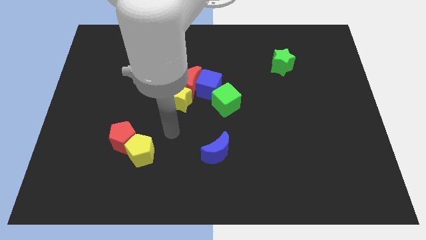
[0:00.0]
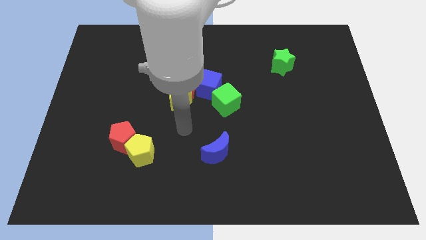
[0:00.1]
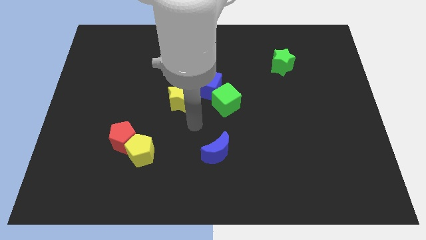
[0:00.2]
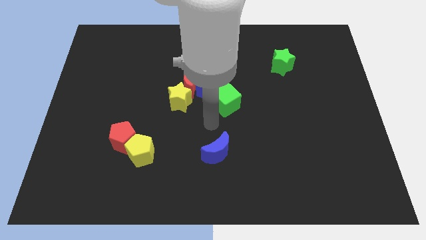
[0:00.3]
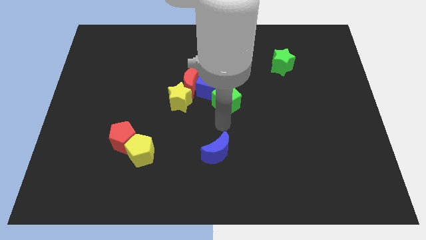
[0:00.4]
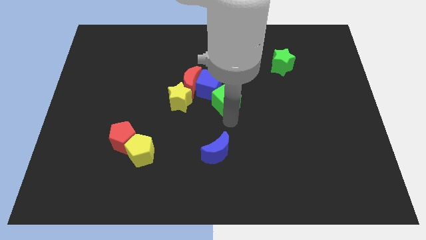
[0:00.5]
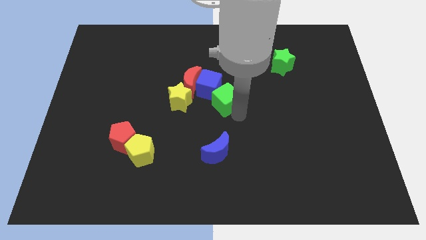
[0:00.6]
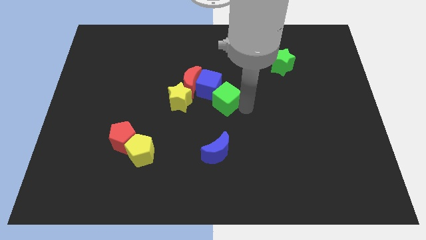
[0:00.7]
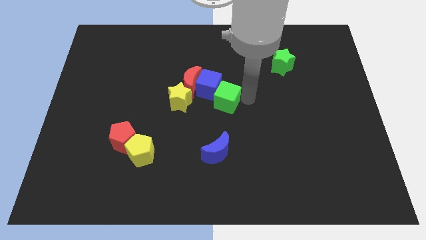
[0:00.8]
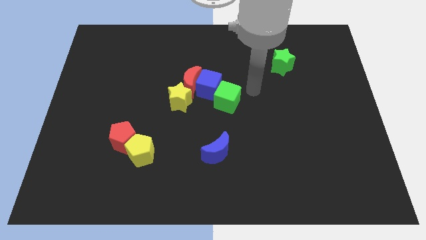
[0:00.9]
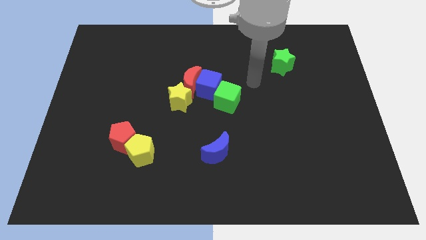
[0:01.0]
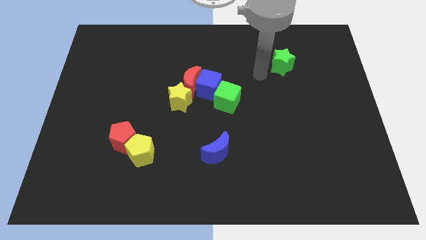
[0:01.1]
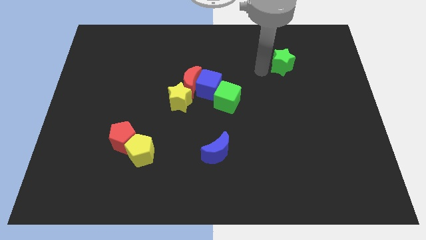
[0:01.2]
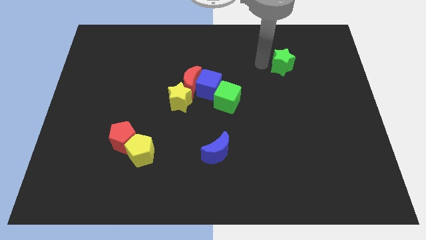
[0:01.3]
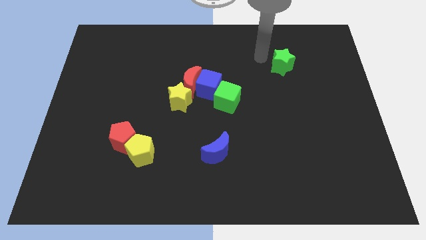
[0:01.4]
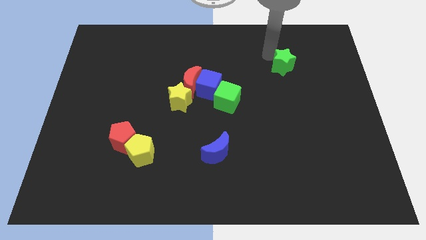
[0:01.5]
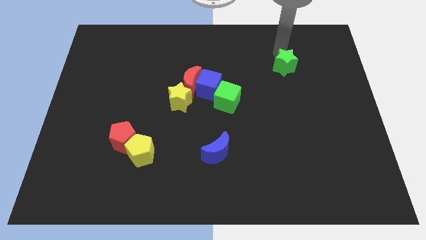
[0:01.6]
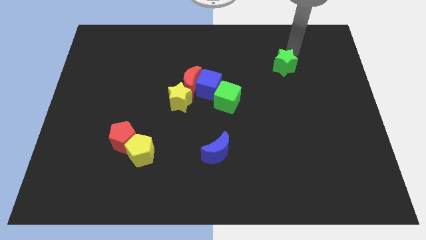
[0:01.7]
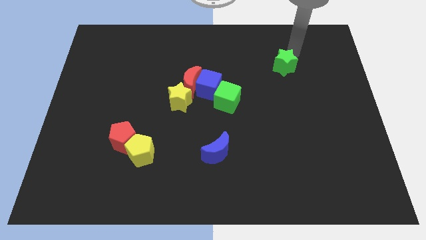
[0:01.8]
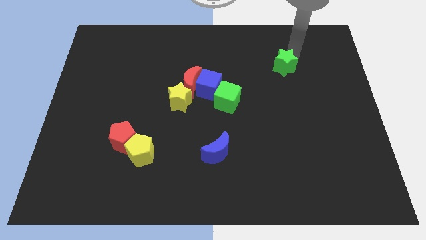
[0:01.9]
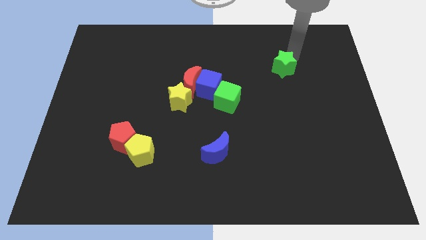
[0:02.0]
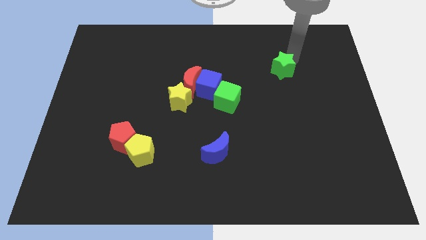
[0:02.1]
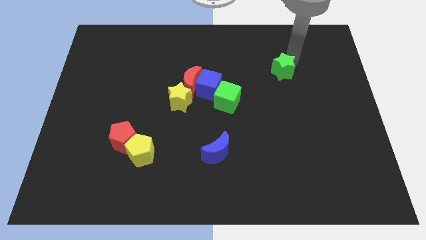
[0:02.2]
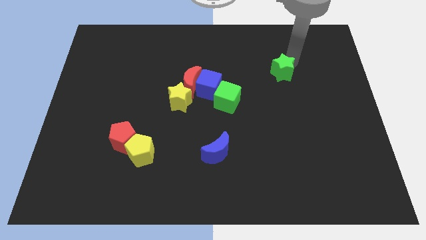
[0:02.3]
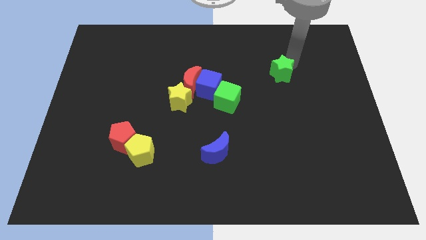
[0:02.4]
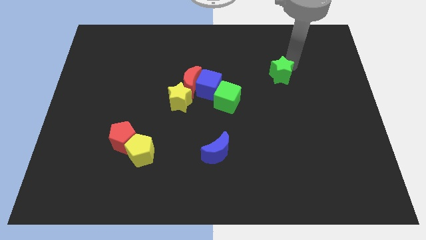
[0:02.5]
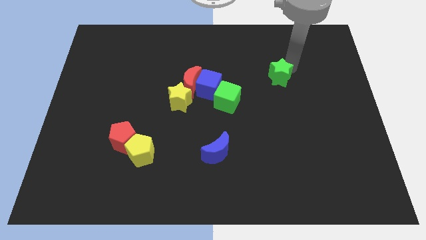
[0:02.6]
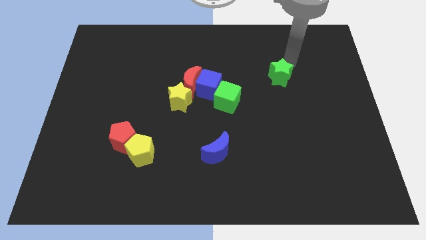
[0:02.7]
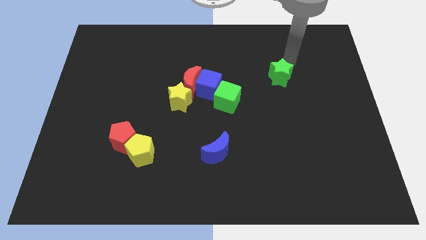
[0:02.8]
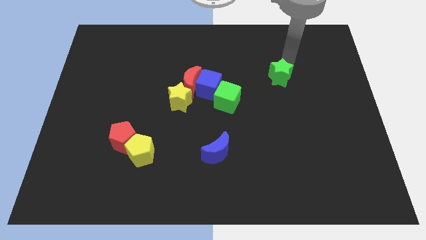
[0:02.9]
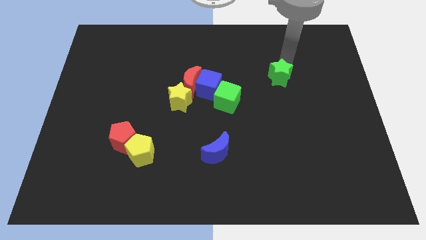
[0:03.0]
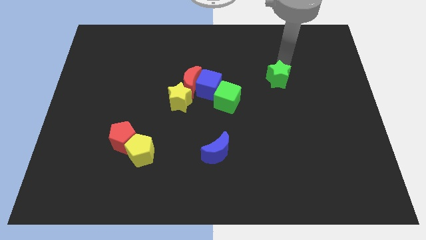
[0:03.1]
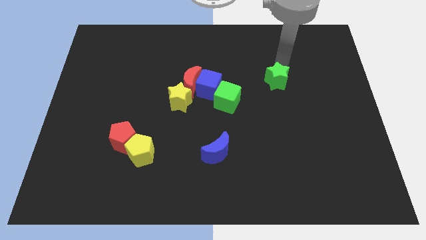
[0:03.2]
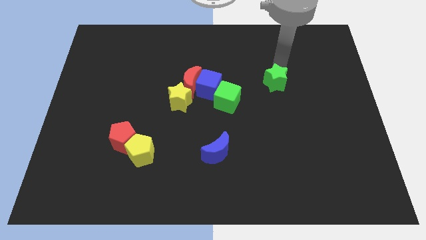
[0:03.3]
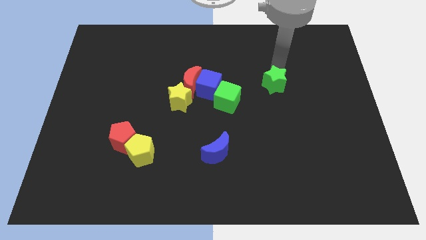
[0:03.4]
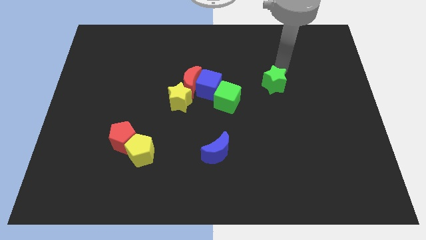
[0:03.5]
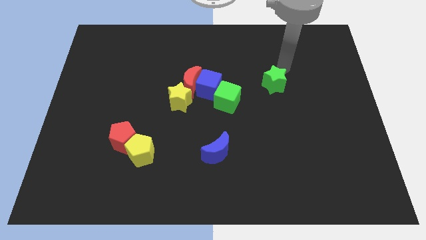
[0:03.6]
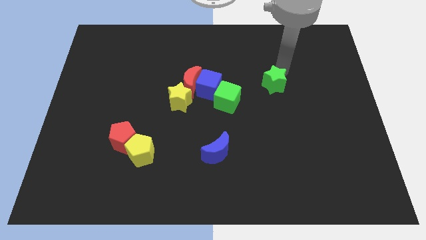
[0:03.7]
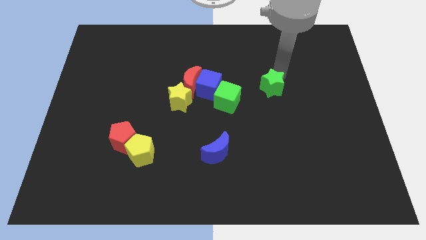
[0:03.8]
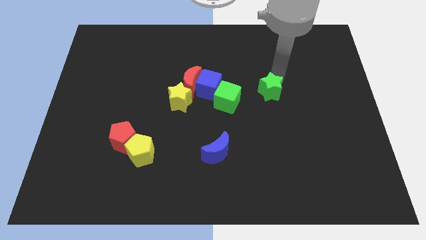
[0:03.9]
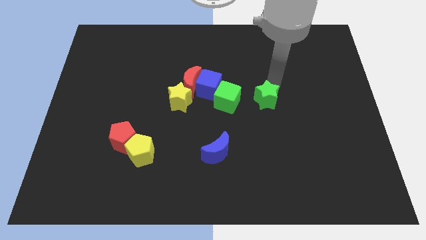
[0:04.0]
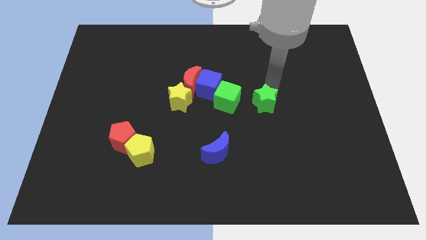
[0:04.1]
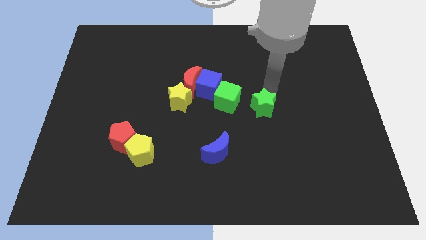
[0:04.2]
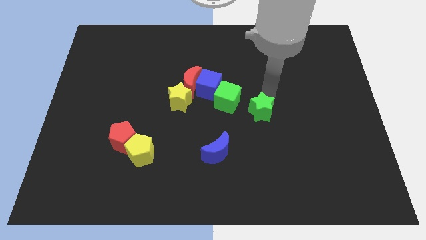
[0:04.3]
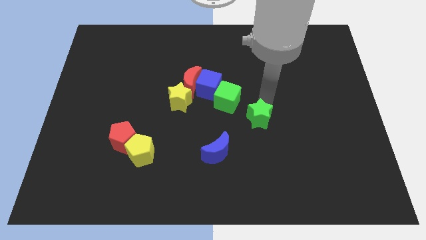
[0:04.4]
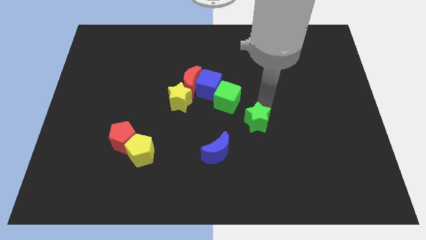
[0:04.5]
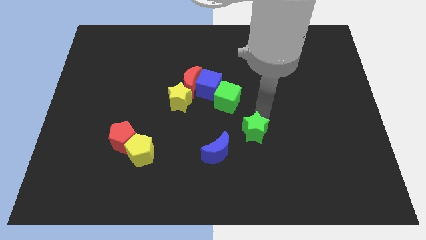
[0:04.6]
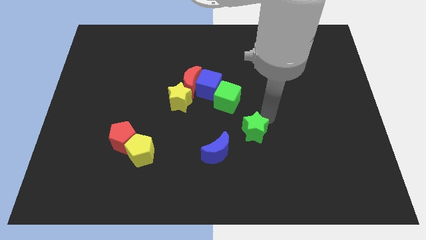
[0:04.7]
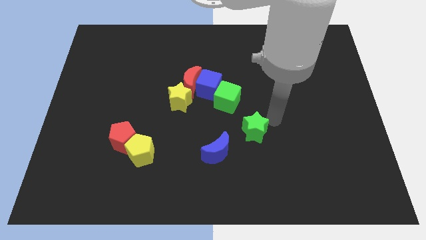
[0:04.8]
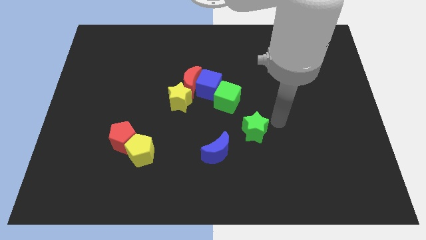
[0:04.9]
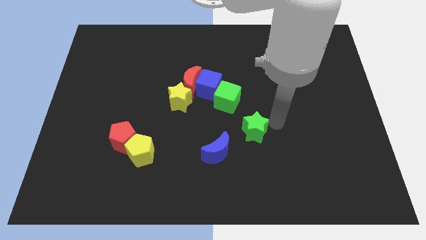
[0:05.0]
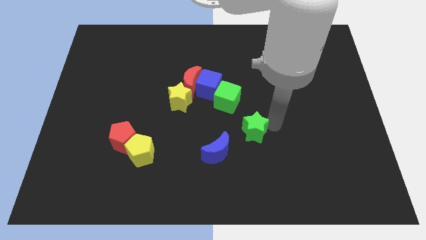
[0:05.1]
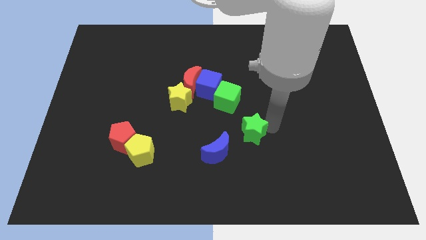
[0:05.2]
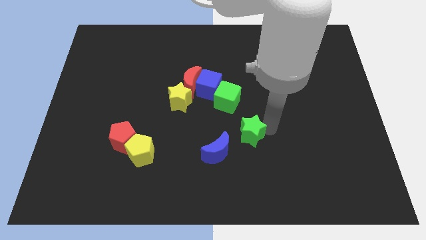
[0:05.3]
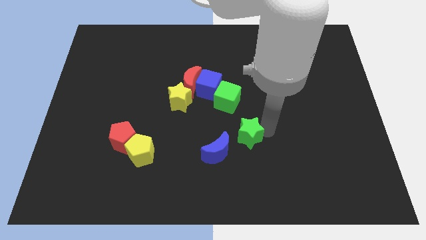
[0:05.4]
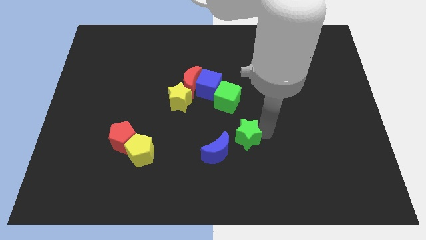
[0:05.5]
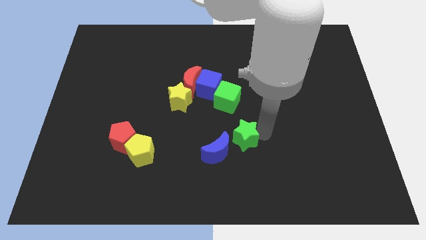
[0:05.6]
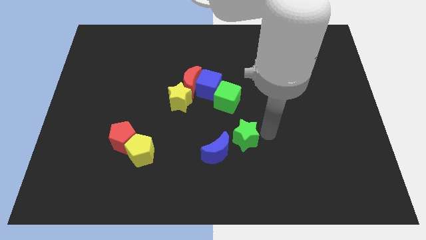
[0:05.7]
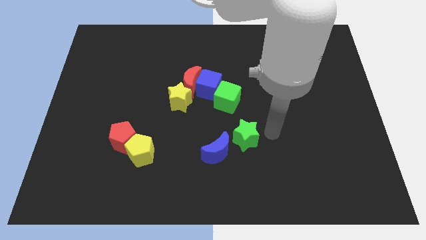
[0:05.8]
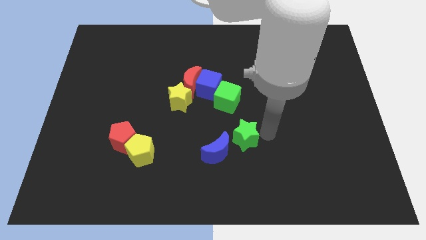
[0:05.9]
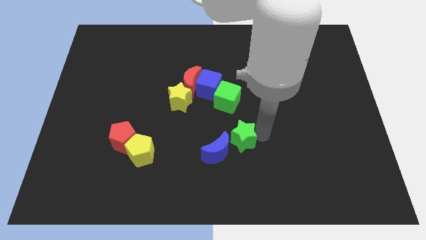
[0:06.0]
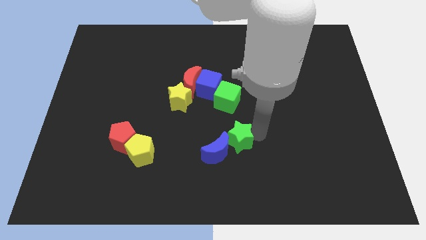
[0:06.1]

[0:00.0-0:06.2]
move the green star close to the blue moon

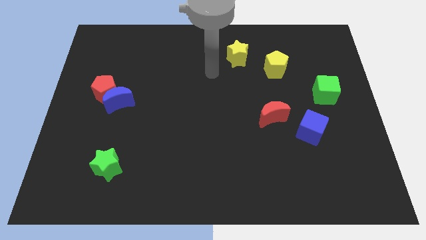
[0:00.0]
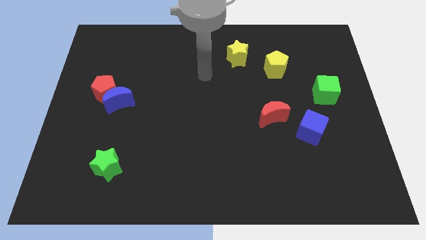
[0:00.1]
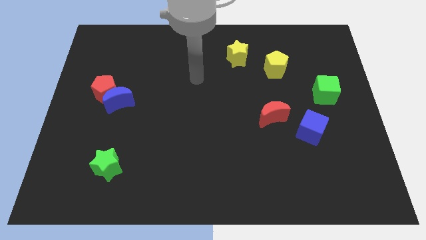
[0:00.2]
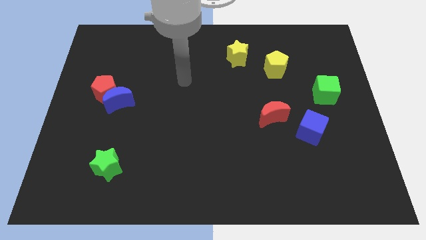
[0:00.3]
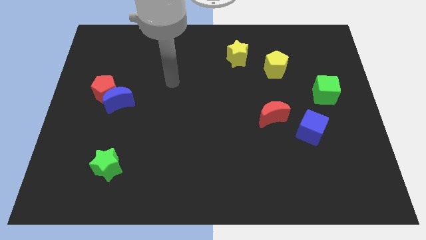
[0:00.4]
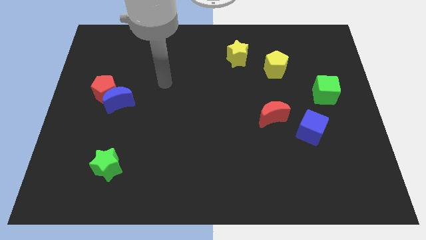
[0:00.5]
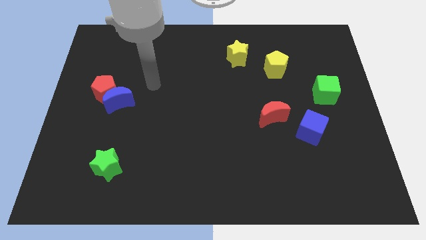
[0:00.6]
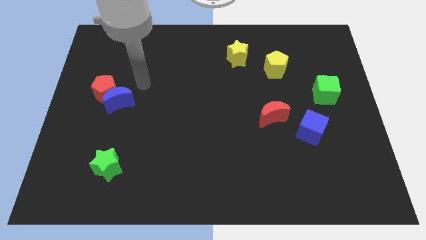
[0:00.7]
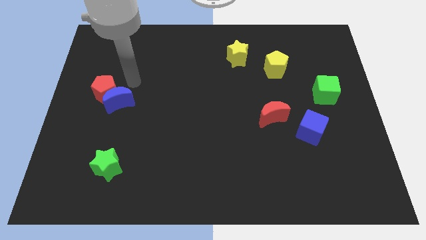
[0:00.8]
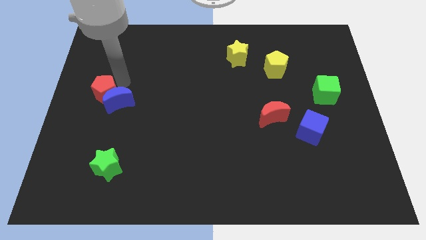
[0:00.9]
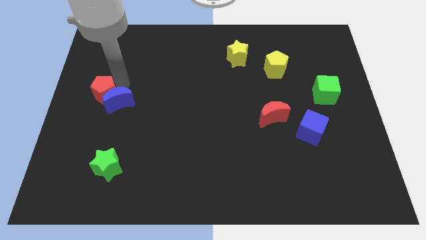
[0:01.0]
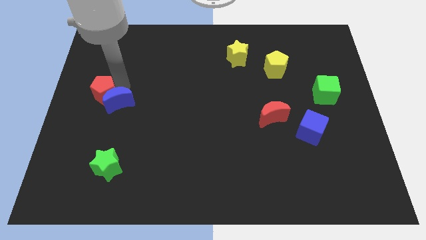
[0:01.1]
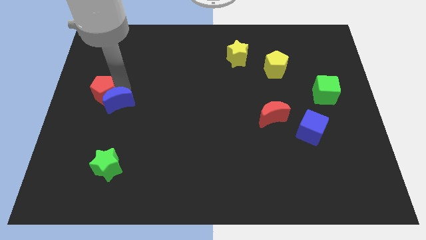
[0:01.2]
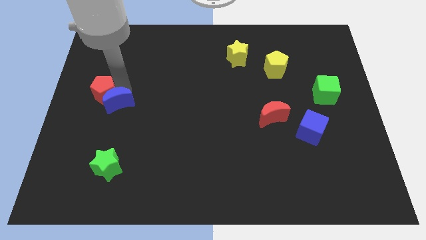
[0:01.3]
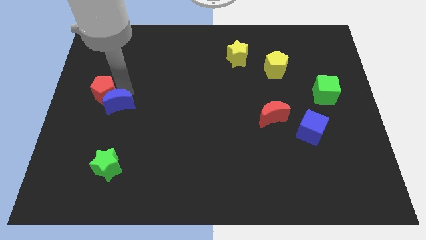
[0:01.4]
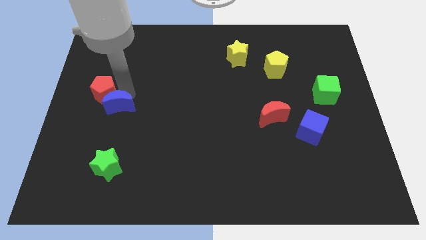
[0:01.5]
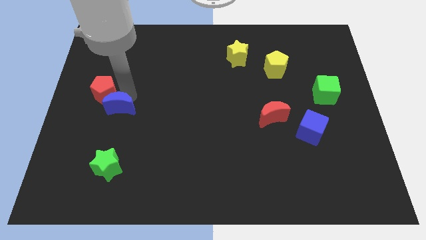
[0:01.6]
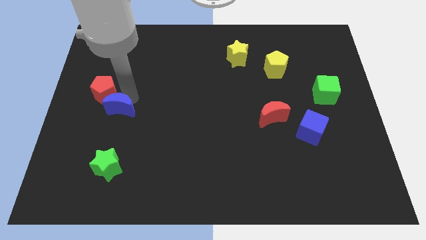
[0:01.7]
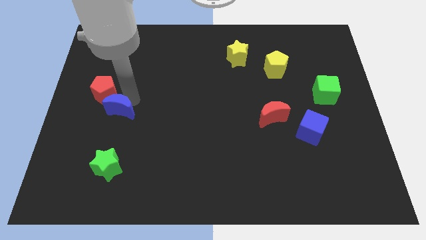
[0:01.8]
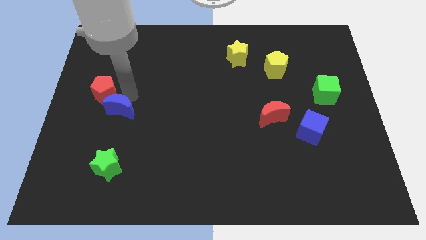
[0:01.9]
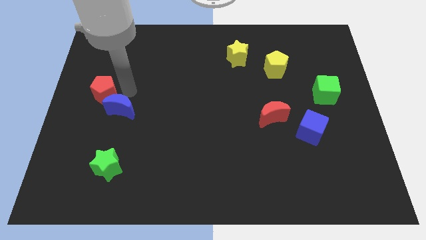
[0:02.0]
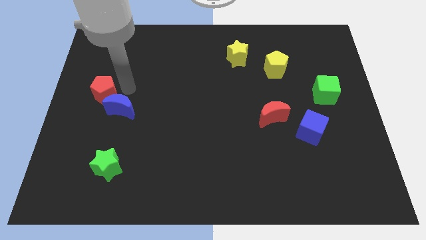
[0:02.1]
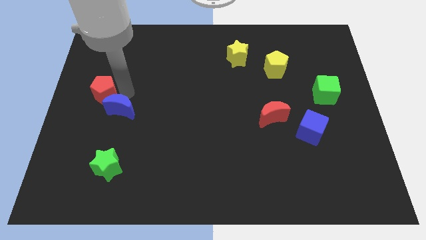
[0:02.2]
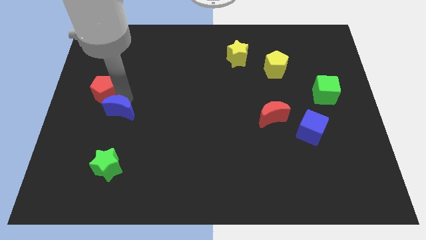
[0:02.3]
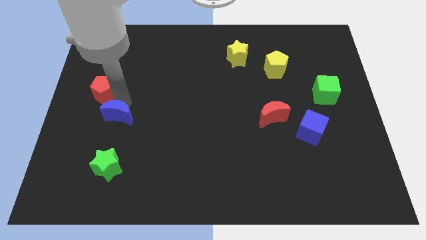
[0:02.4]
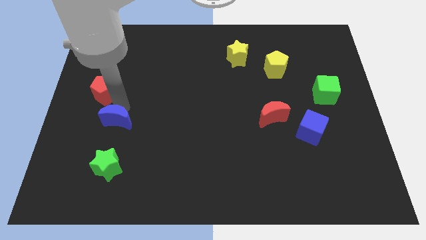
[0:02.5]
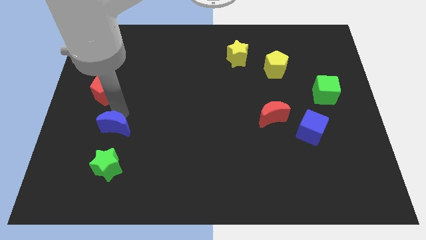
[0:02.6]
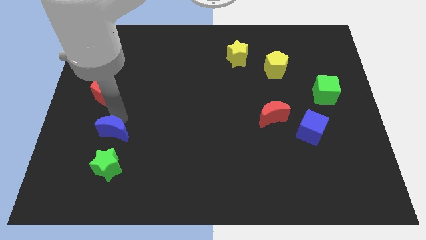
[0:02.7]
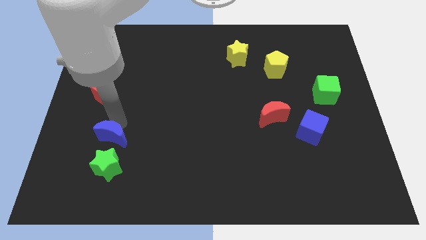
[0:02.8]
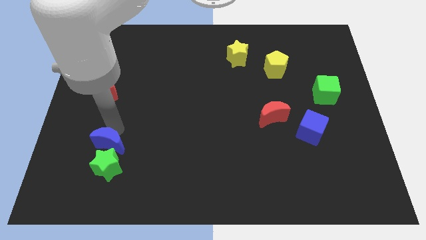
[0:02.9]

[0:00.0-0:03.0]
put the blue moon to the green star
